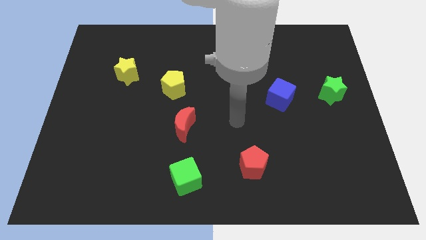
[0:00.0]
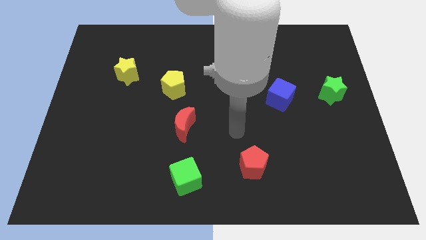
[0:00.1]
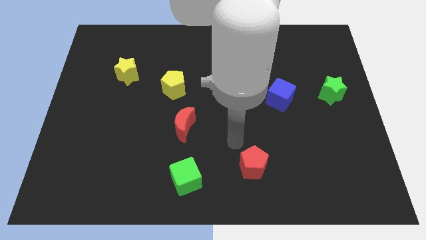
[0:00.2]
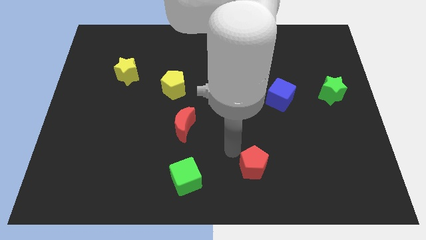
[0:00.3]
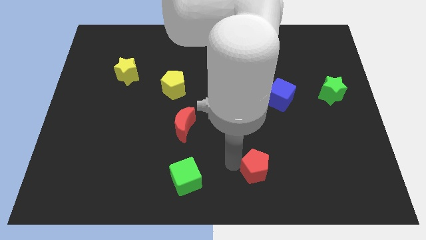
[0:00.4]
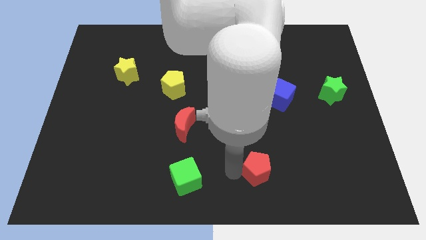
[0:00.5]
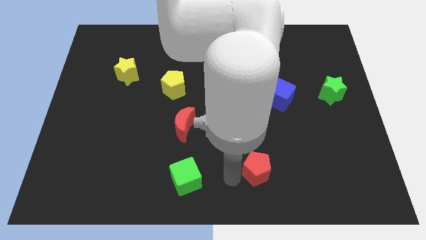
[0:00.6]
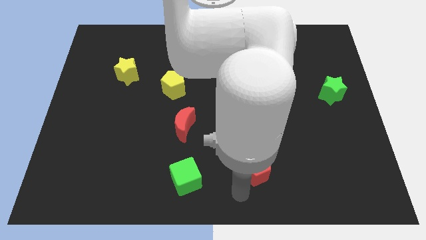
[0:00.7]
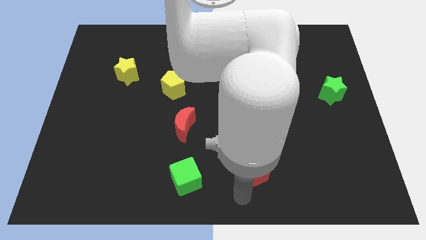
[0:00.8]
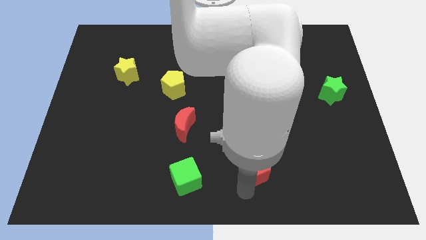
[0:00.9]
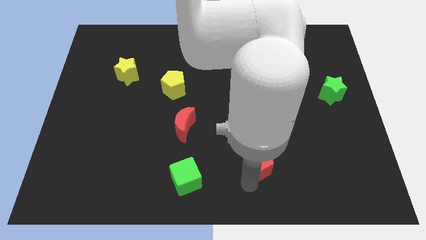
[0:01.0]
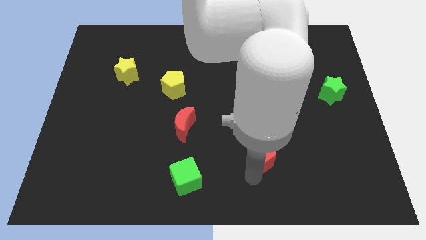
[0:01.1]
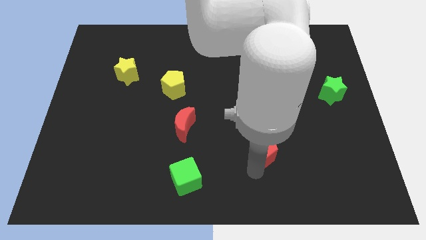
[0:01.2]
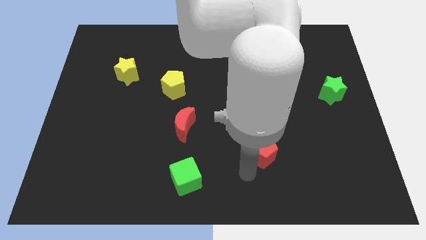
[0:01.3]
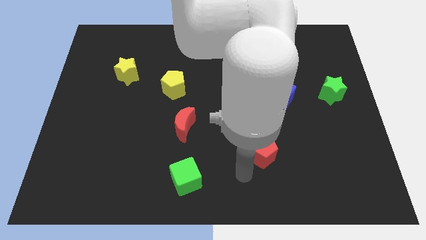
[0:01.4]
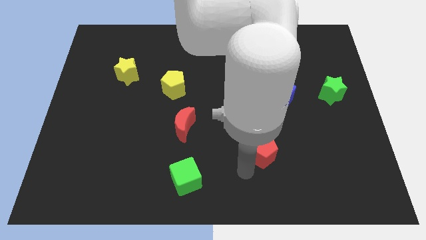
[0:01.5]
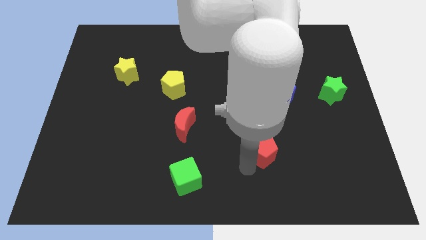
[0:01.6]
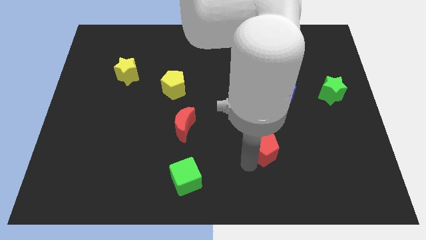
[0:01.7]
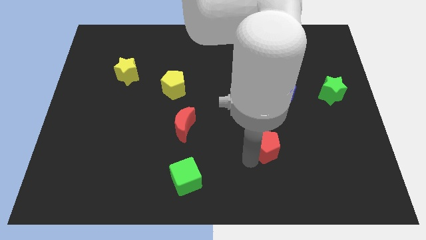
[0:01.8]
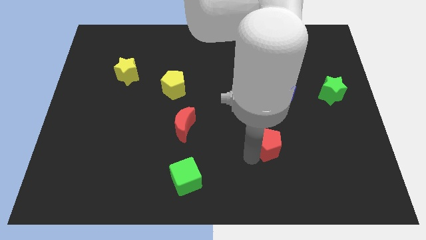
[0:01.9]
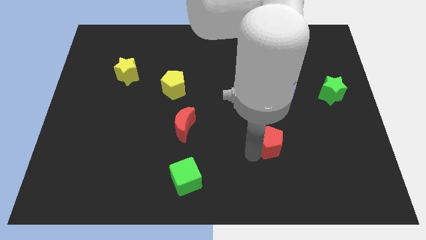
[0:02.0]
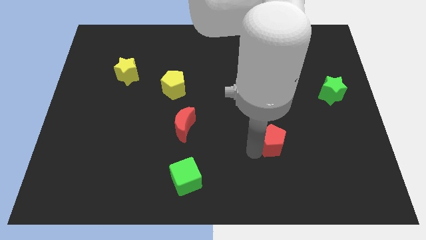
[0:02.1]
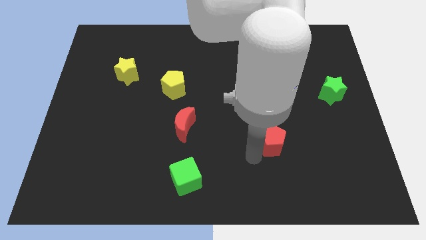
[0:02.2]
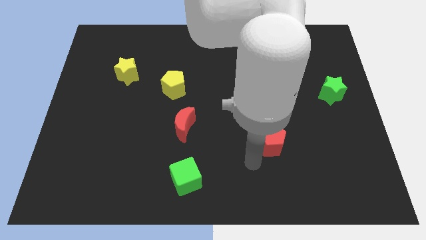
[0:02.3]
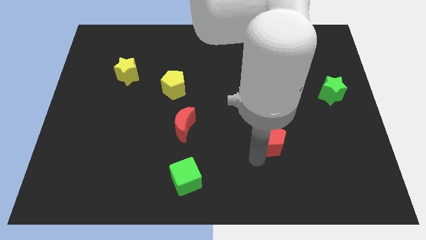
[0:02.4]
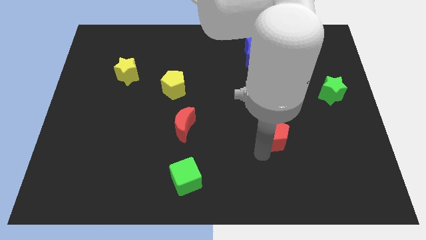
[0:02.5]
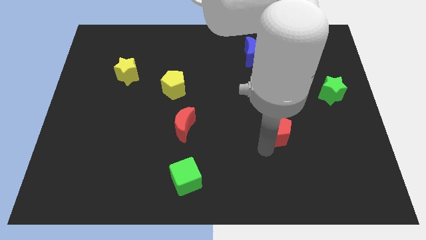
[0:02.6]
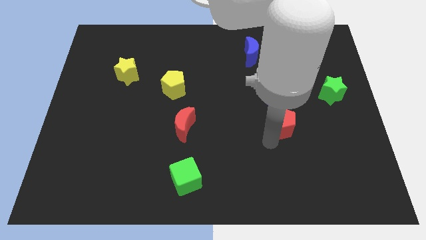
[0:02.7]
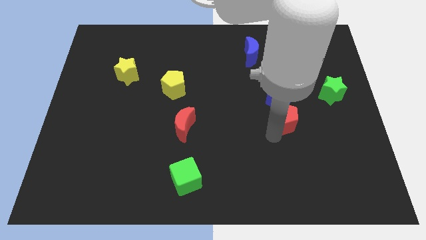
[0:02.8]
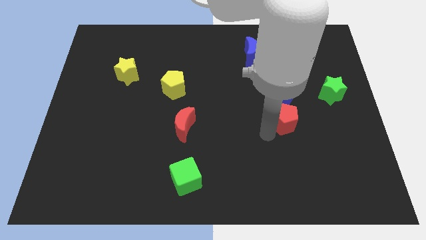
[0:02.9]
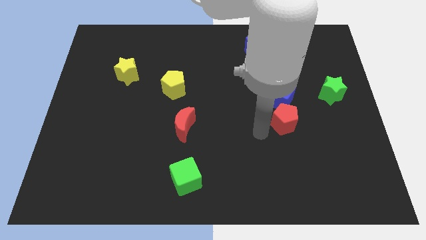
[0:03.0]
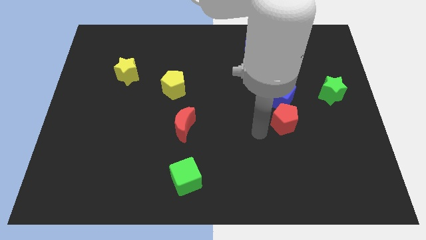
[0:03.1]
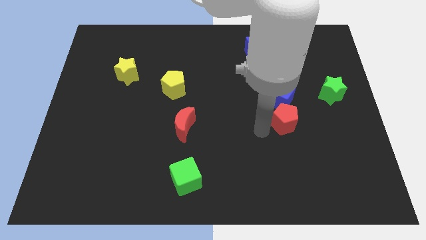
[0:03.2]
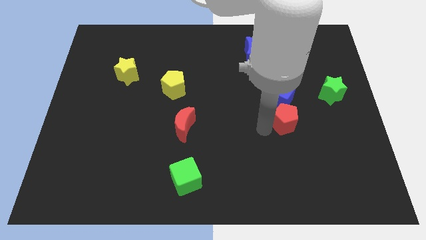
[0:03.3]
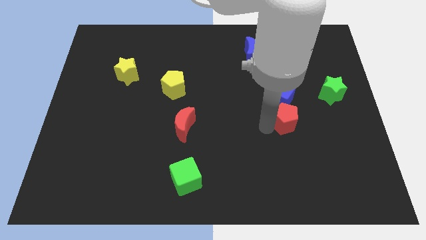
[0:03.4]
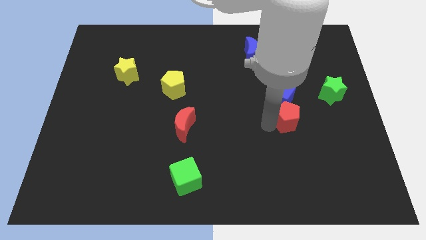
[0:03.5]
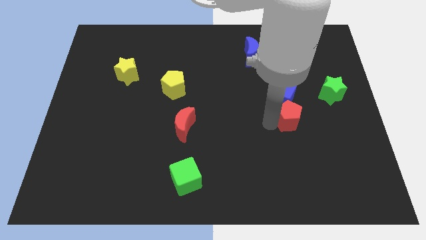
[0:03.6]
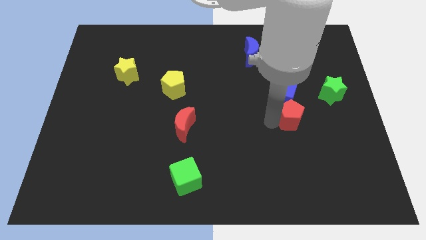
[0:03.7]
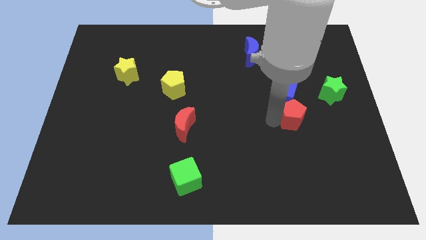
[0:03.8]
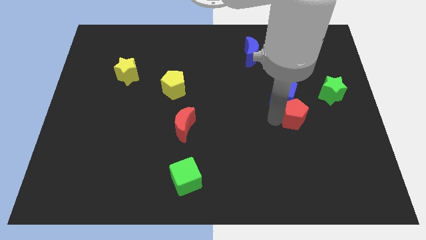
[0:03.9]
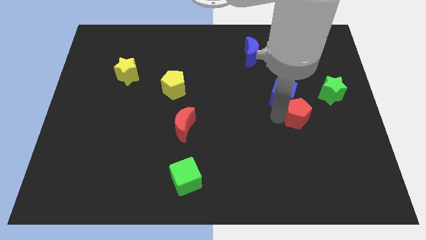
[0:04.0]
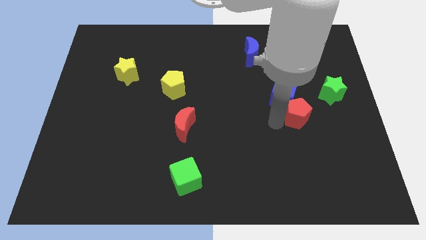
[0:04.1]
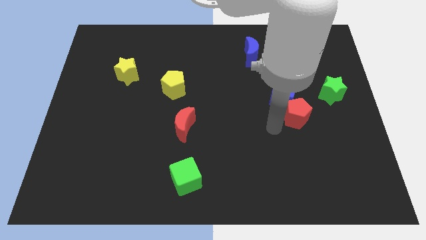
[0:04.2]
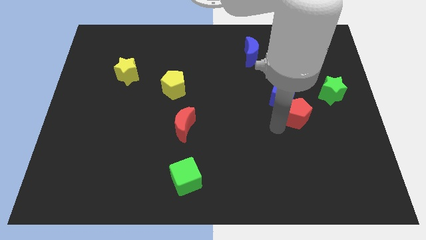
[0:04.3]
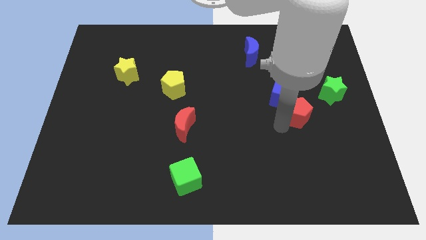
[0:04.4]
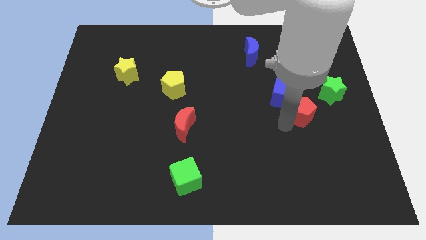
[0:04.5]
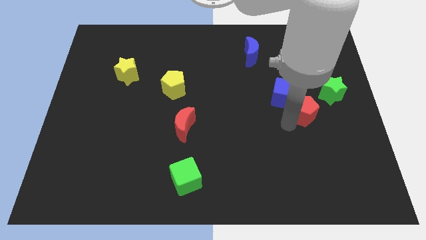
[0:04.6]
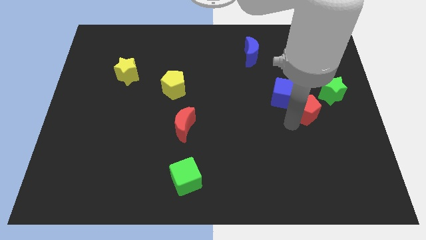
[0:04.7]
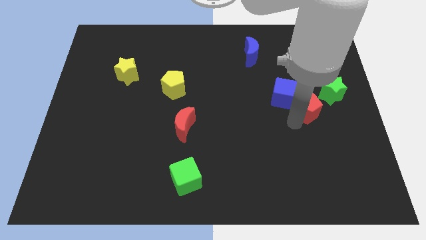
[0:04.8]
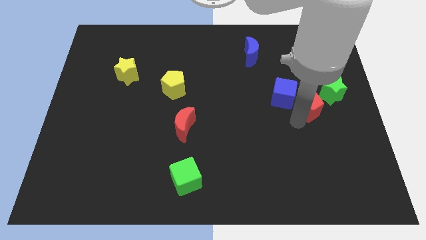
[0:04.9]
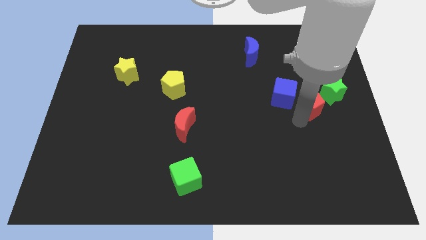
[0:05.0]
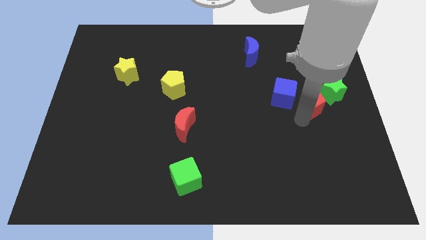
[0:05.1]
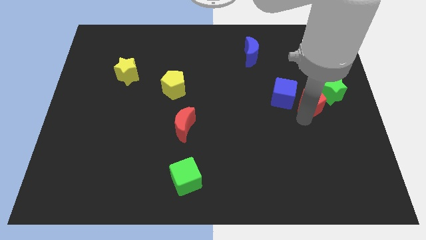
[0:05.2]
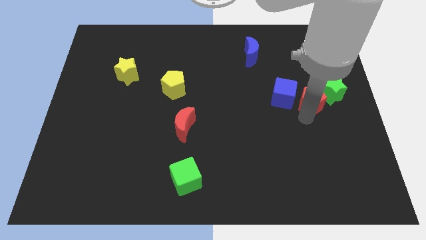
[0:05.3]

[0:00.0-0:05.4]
slide the red pentagon close to the green star

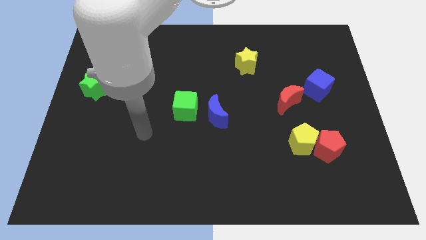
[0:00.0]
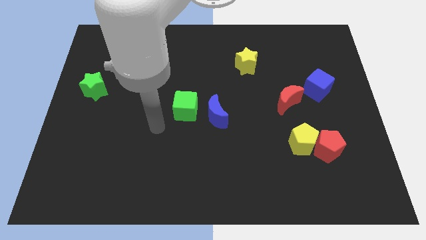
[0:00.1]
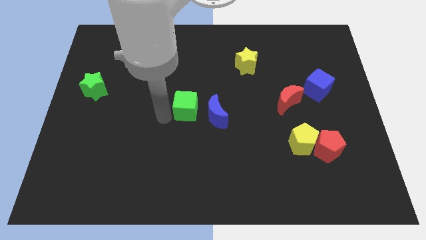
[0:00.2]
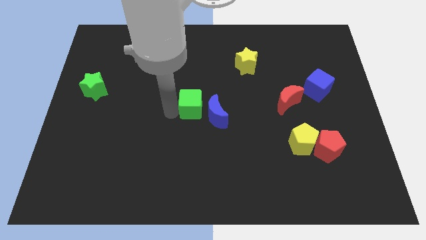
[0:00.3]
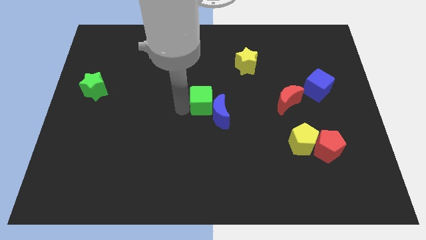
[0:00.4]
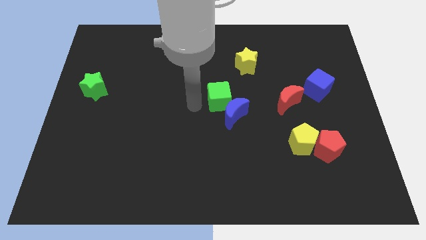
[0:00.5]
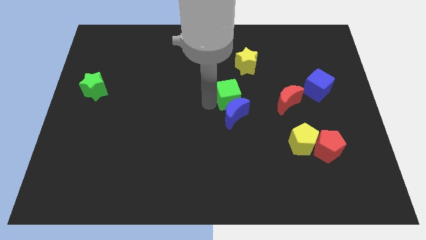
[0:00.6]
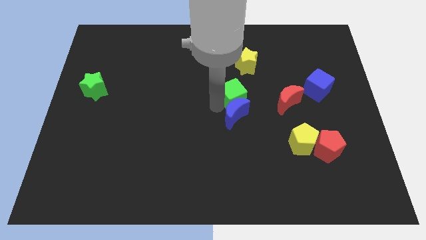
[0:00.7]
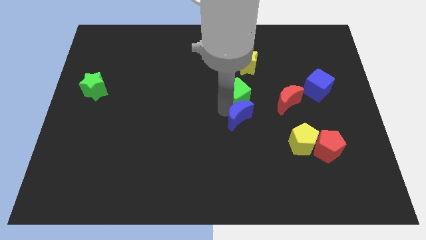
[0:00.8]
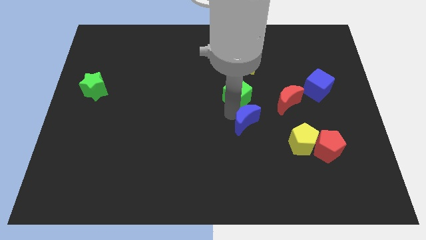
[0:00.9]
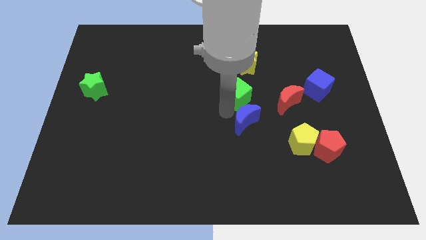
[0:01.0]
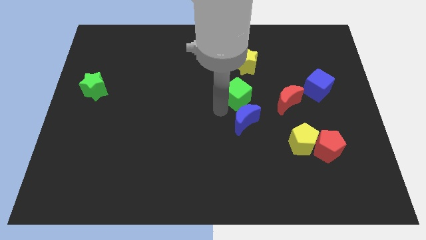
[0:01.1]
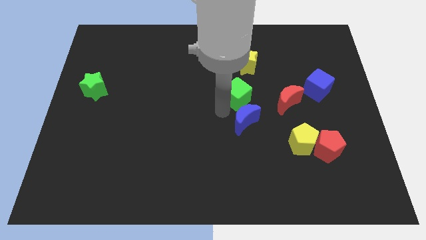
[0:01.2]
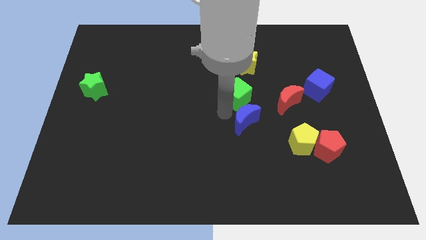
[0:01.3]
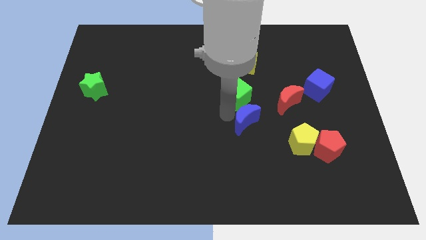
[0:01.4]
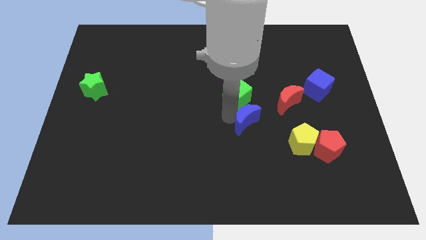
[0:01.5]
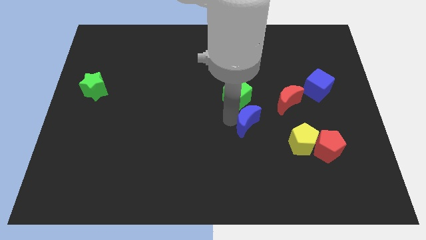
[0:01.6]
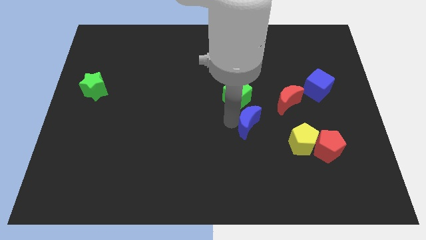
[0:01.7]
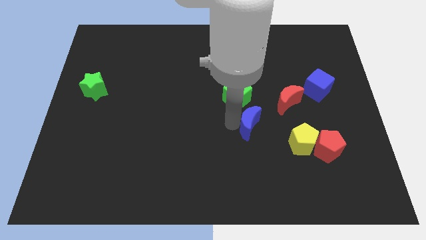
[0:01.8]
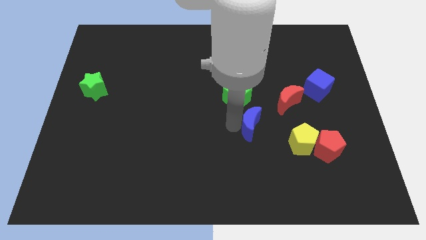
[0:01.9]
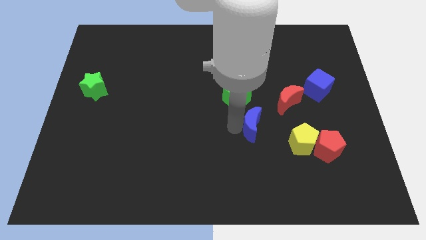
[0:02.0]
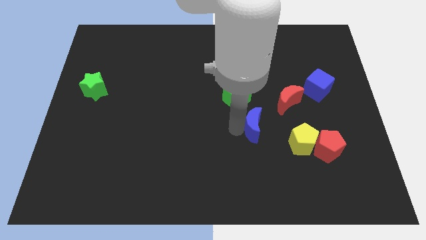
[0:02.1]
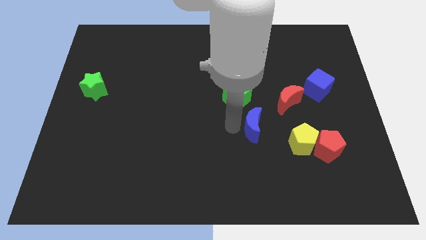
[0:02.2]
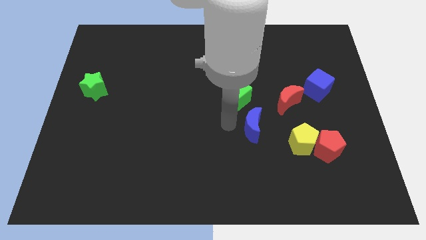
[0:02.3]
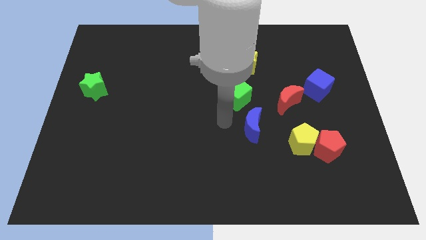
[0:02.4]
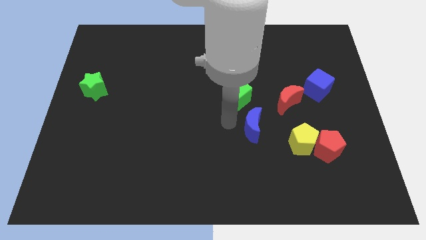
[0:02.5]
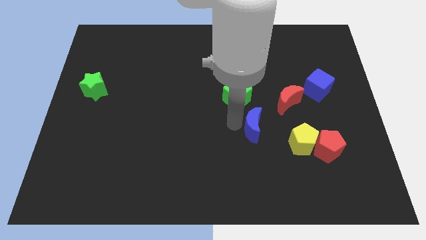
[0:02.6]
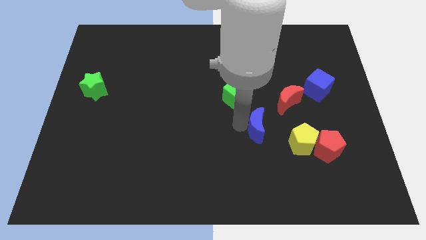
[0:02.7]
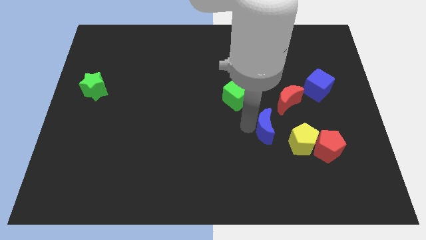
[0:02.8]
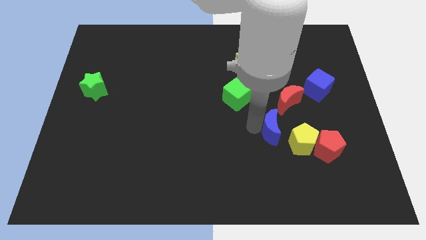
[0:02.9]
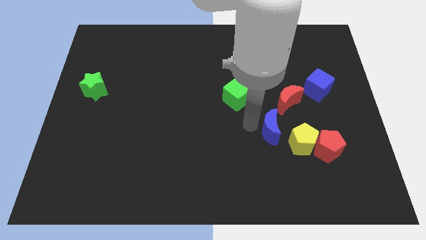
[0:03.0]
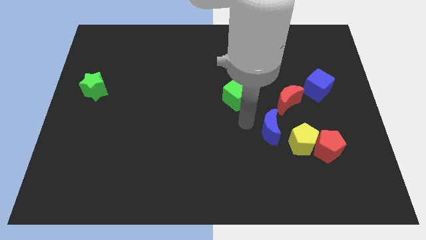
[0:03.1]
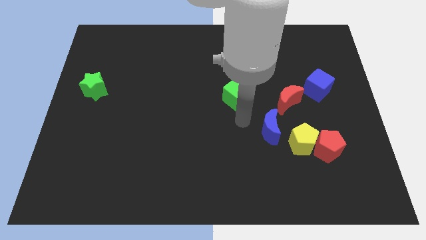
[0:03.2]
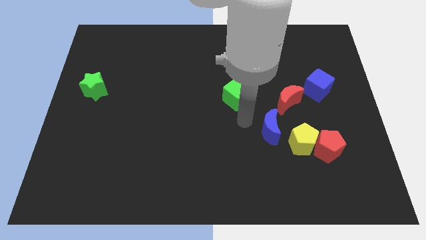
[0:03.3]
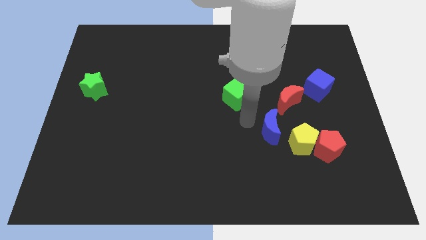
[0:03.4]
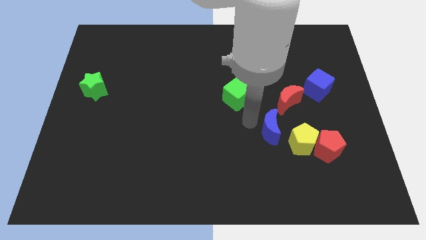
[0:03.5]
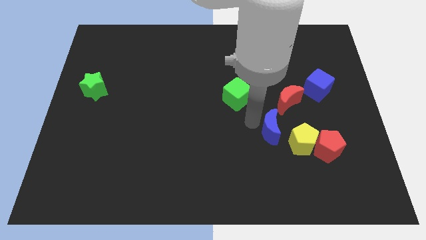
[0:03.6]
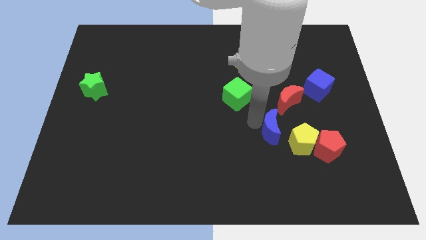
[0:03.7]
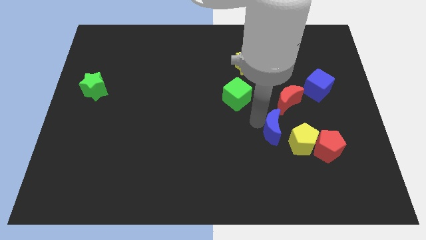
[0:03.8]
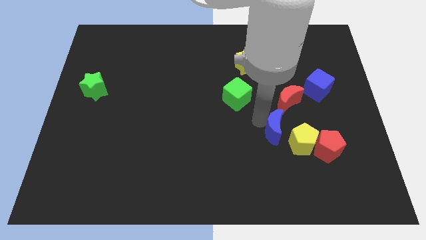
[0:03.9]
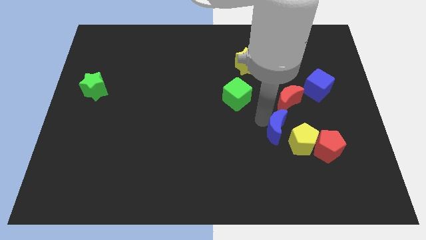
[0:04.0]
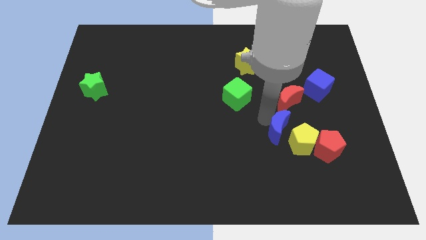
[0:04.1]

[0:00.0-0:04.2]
push the blue moon to the yellow pentagon
